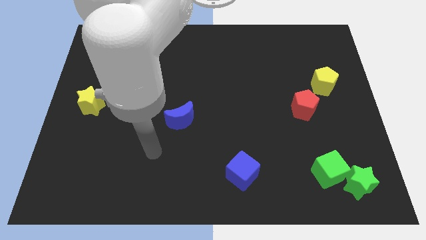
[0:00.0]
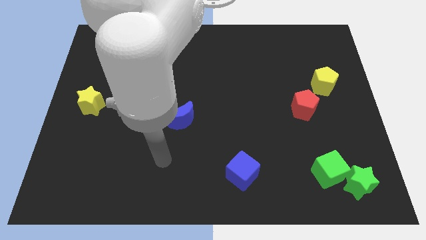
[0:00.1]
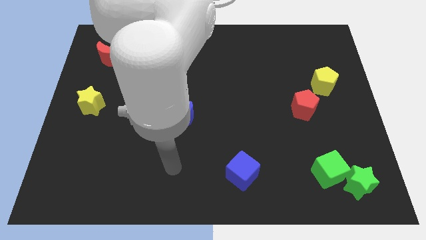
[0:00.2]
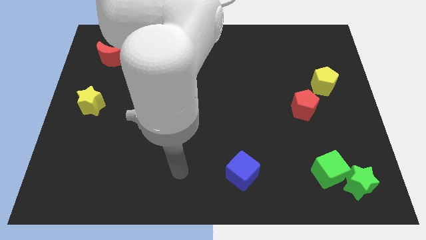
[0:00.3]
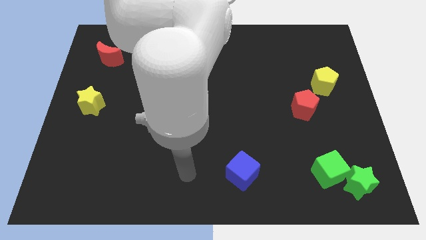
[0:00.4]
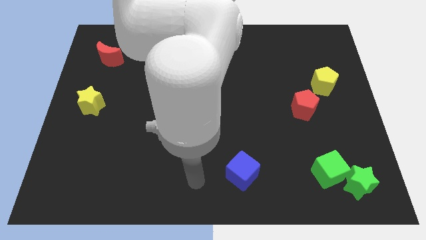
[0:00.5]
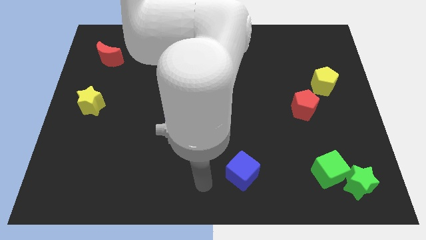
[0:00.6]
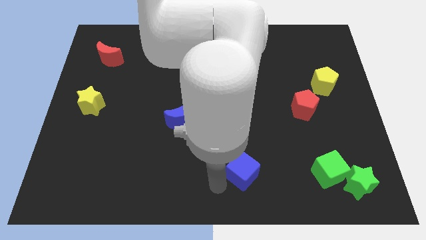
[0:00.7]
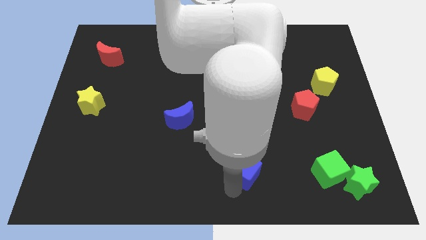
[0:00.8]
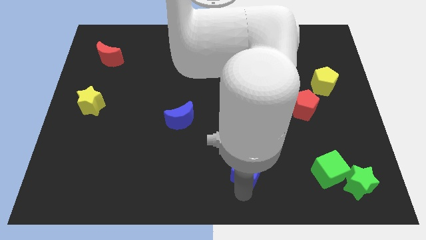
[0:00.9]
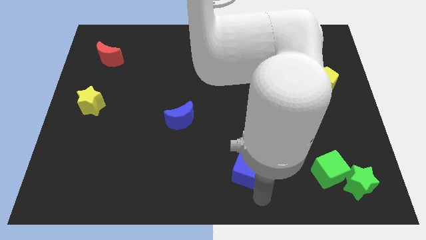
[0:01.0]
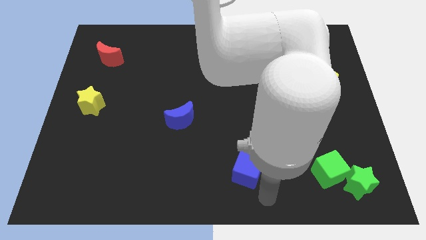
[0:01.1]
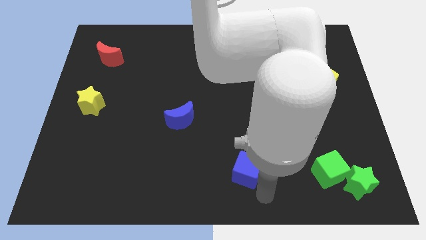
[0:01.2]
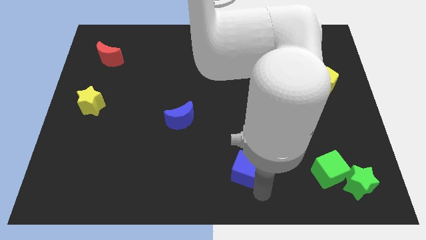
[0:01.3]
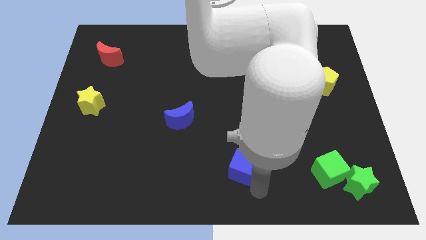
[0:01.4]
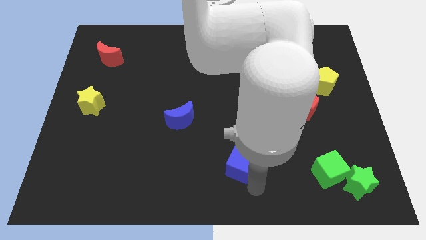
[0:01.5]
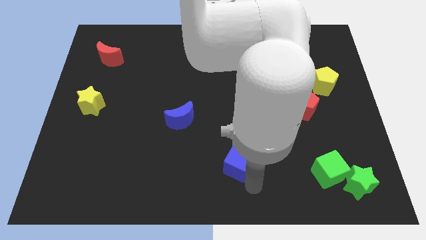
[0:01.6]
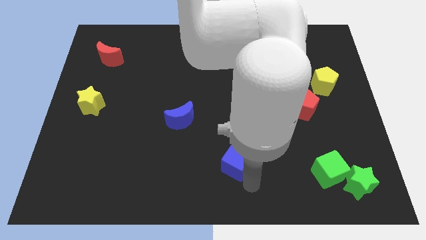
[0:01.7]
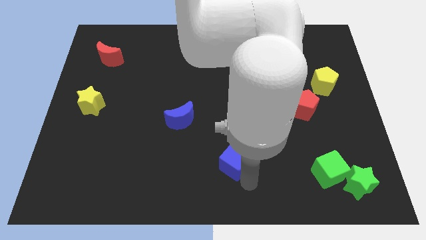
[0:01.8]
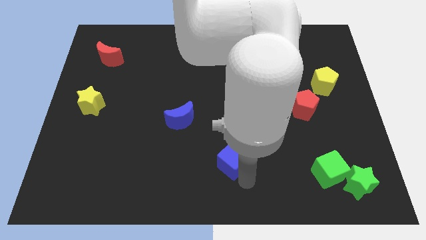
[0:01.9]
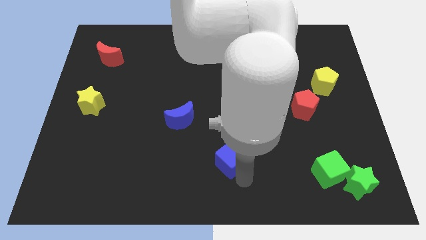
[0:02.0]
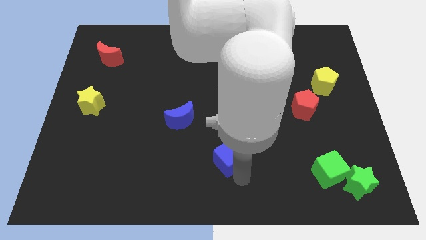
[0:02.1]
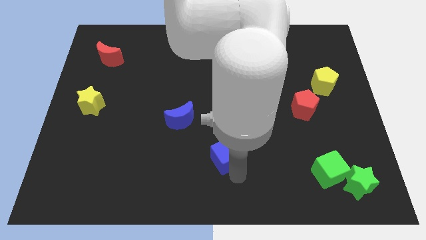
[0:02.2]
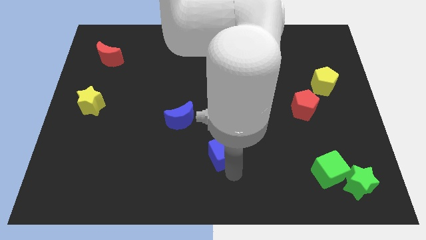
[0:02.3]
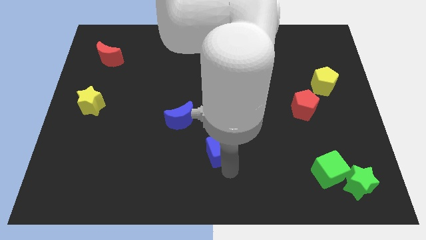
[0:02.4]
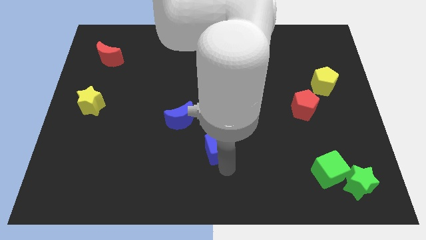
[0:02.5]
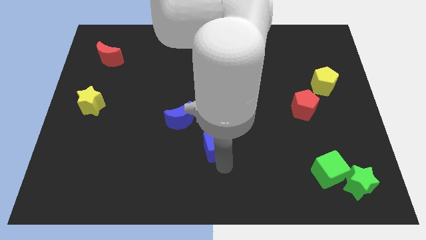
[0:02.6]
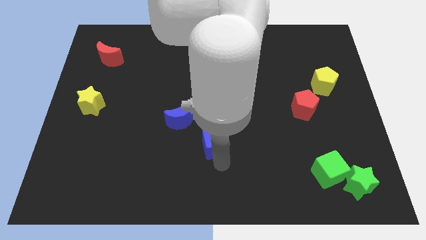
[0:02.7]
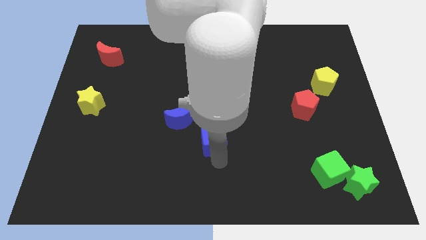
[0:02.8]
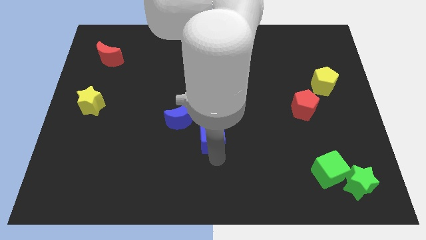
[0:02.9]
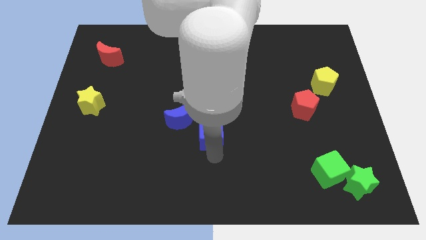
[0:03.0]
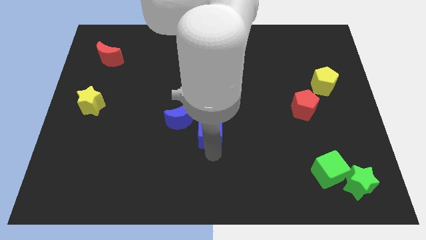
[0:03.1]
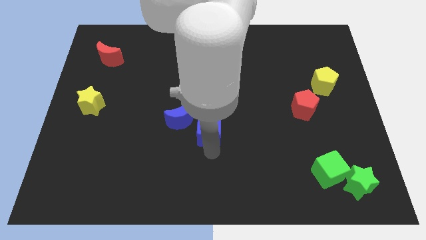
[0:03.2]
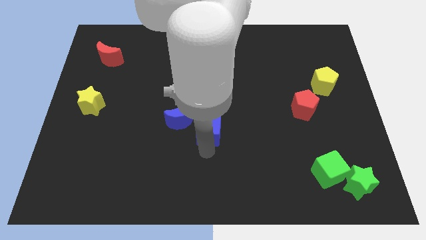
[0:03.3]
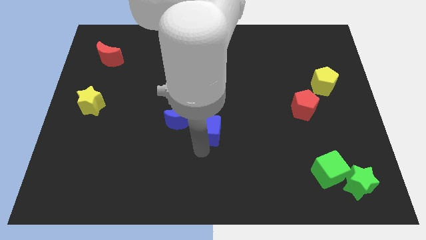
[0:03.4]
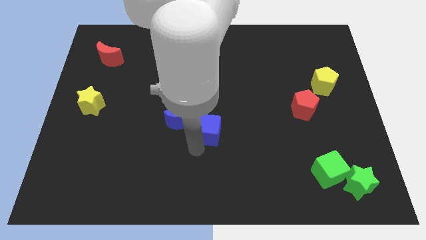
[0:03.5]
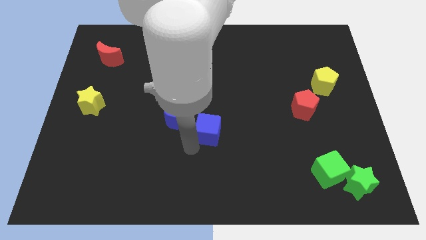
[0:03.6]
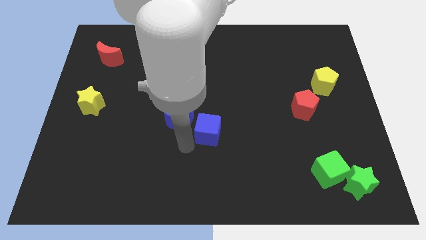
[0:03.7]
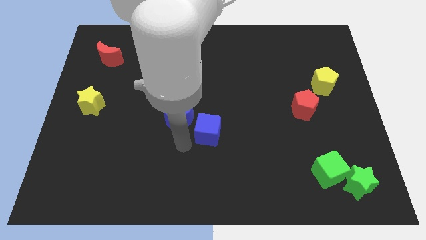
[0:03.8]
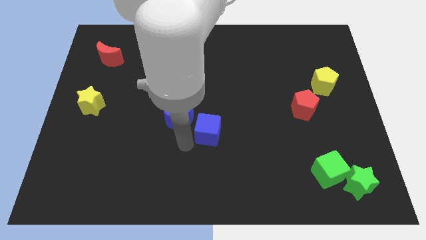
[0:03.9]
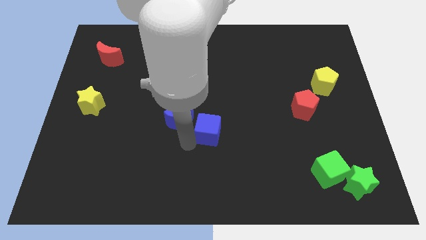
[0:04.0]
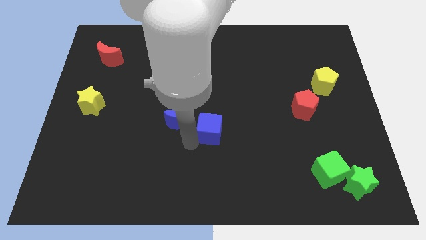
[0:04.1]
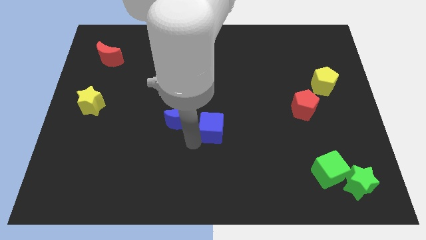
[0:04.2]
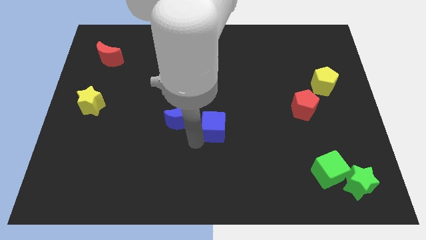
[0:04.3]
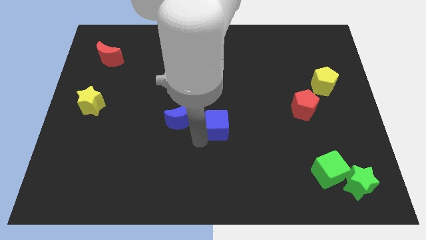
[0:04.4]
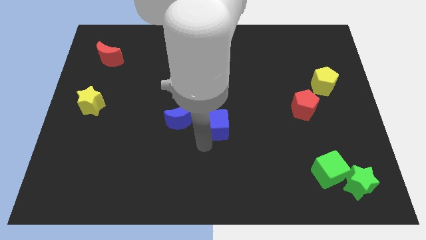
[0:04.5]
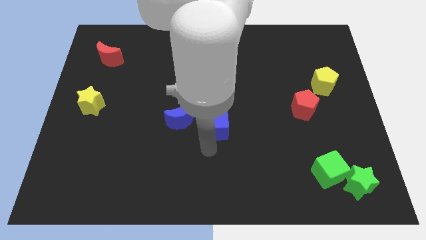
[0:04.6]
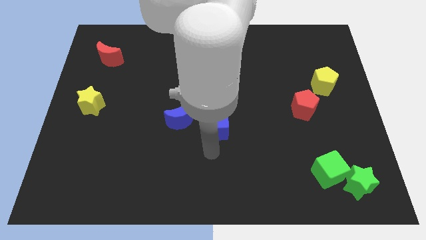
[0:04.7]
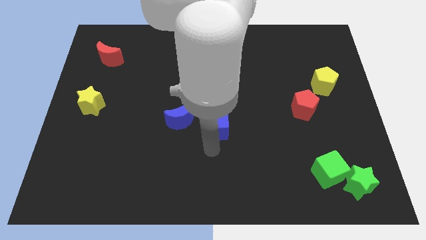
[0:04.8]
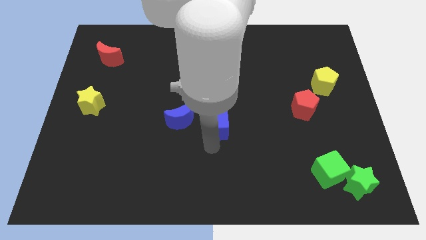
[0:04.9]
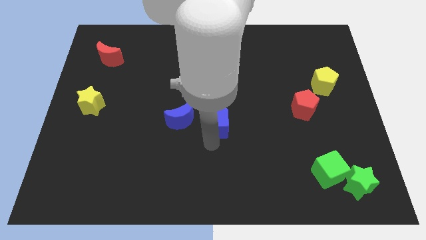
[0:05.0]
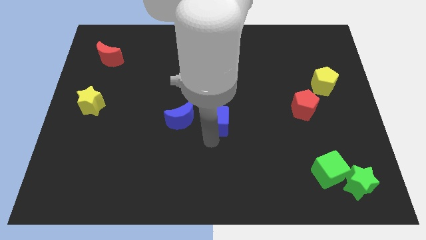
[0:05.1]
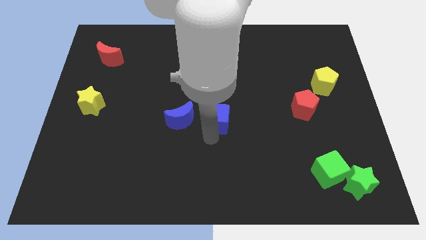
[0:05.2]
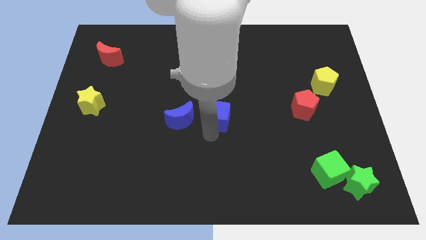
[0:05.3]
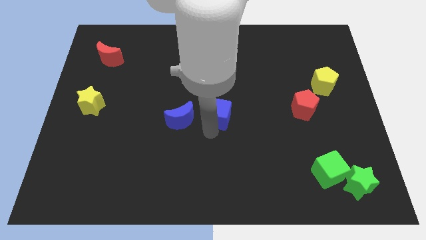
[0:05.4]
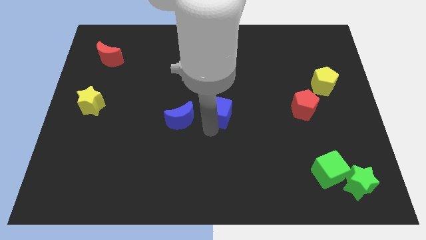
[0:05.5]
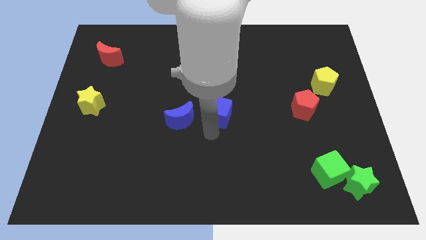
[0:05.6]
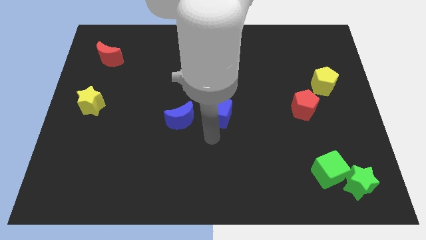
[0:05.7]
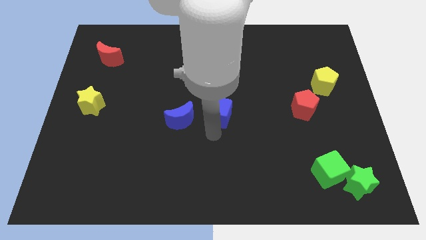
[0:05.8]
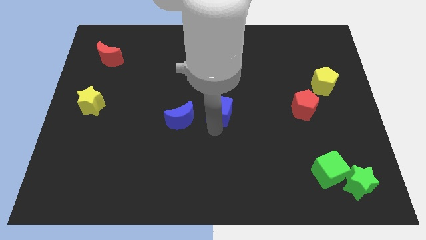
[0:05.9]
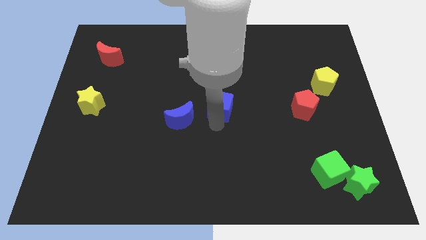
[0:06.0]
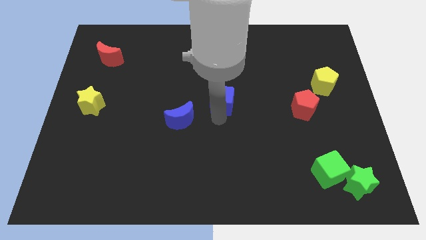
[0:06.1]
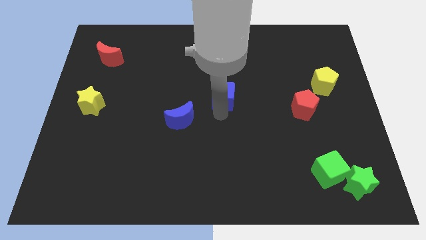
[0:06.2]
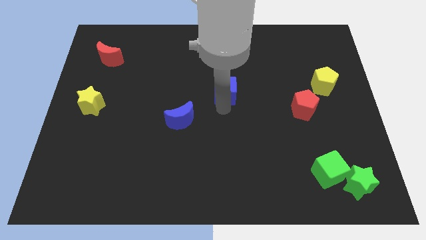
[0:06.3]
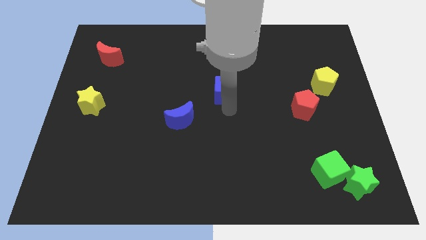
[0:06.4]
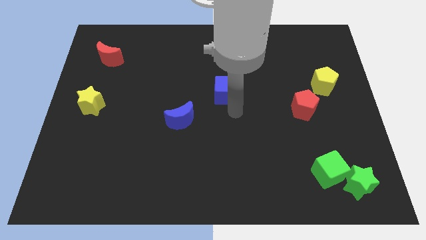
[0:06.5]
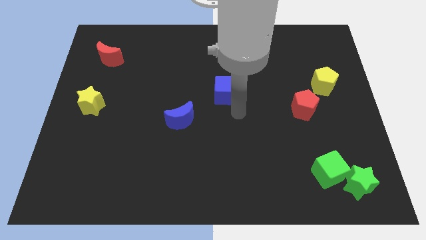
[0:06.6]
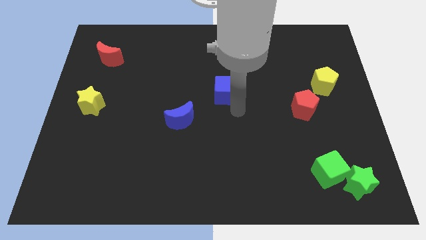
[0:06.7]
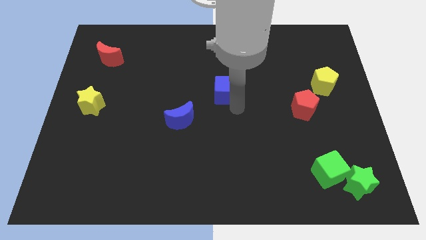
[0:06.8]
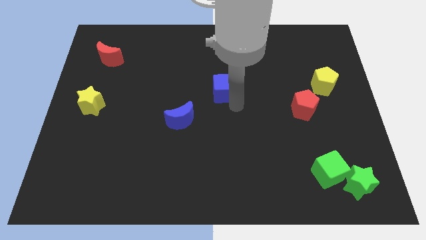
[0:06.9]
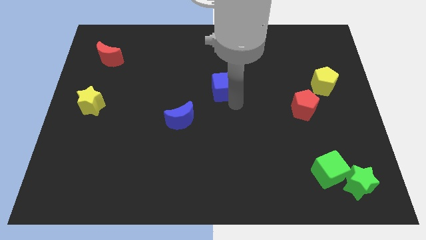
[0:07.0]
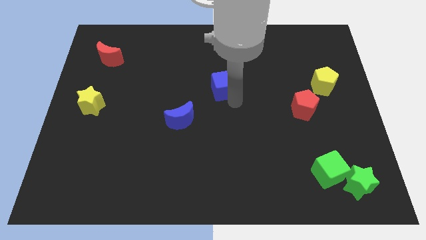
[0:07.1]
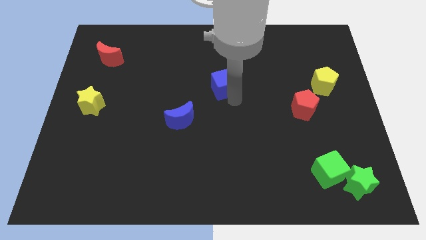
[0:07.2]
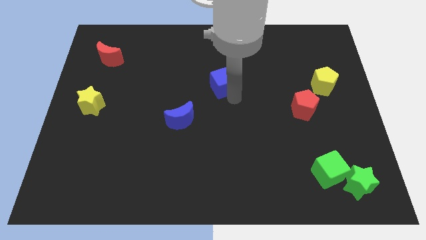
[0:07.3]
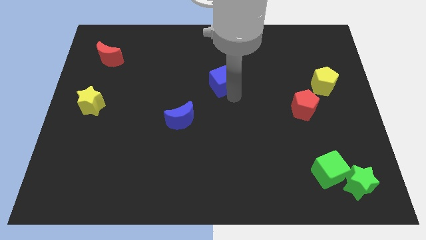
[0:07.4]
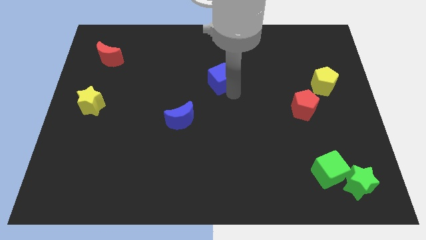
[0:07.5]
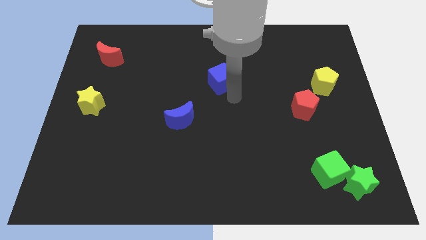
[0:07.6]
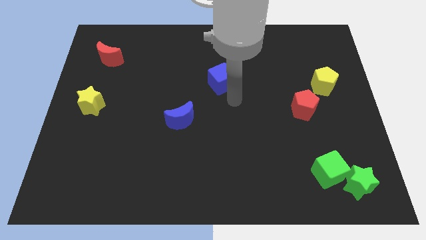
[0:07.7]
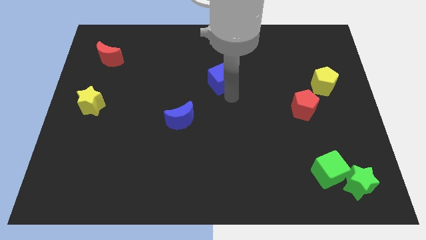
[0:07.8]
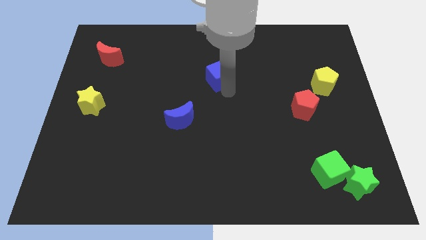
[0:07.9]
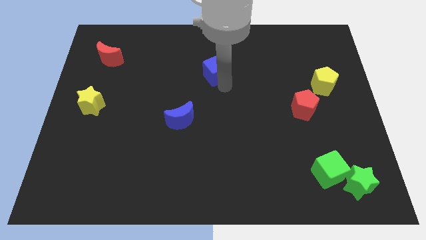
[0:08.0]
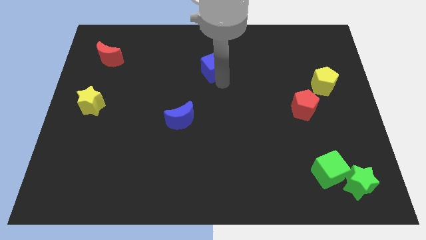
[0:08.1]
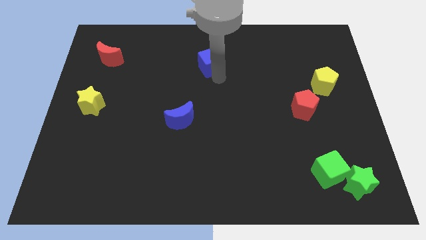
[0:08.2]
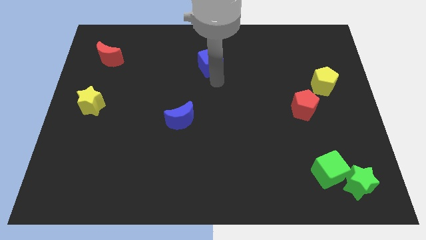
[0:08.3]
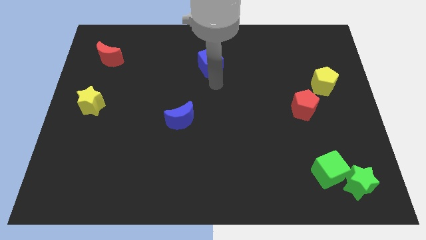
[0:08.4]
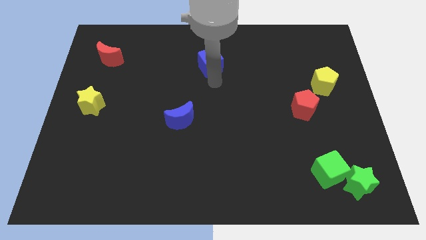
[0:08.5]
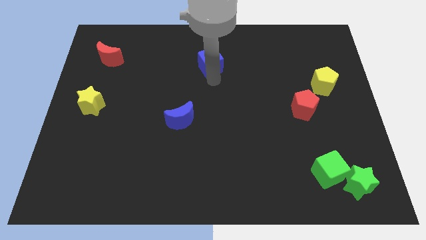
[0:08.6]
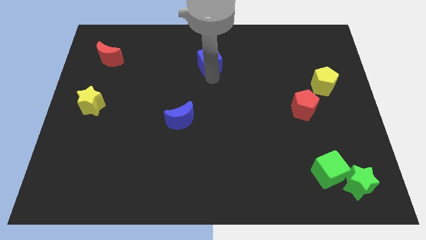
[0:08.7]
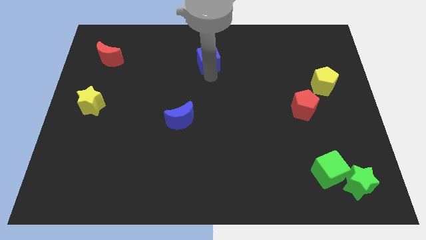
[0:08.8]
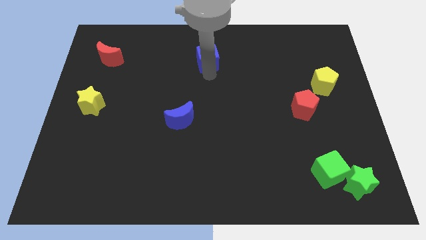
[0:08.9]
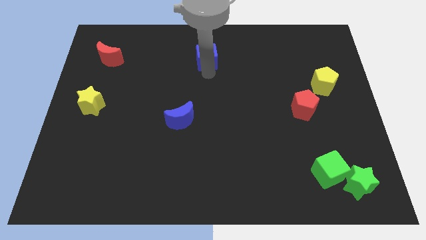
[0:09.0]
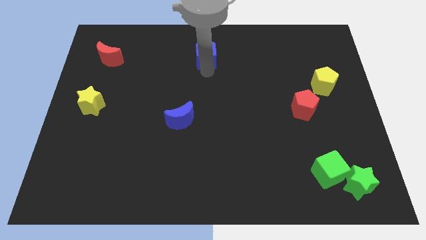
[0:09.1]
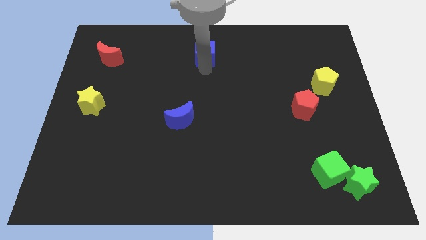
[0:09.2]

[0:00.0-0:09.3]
put the blue cube to the top side
